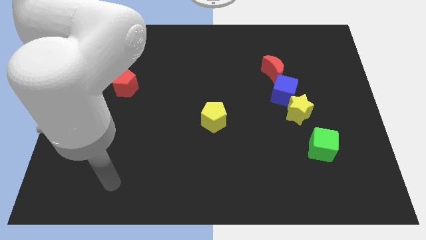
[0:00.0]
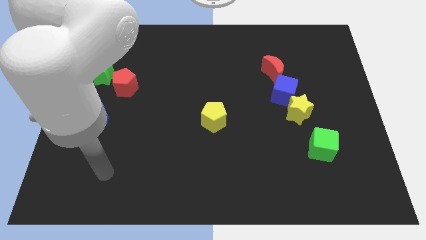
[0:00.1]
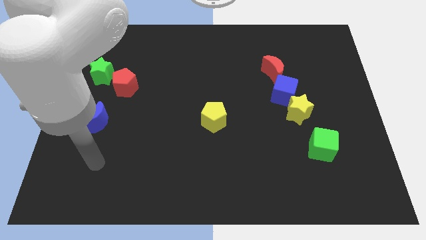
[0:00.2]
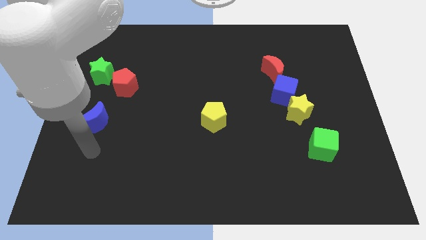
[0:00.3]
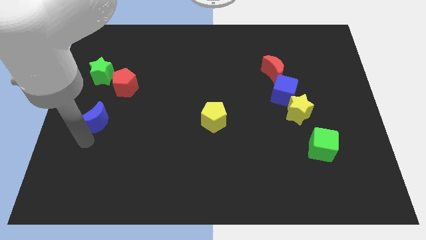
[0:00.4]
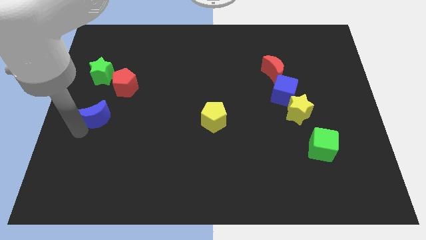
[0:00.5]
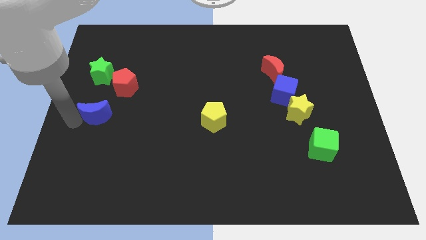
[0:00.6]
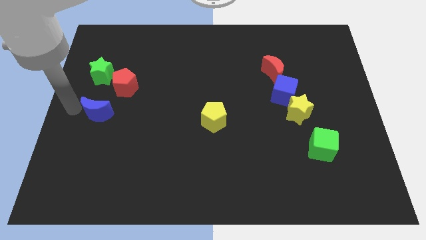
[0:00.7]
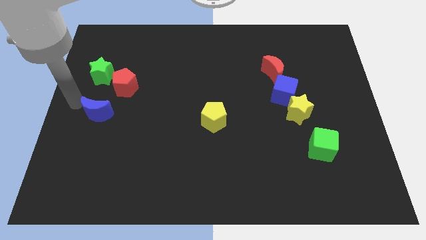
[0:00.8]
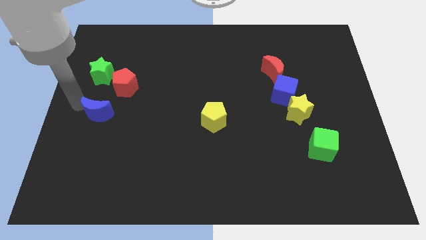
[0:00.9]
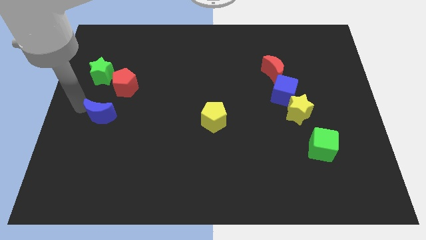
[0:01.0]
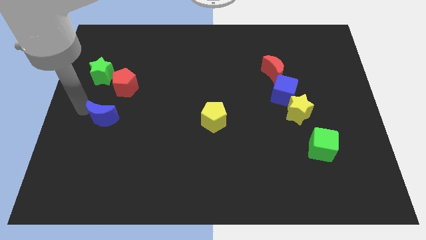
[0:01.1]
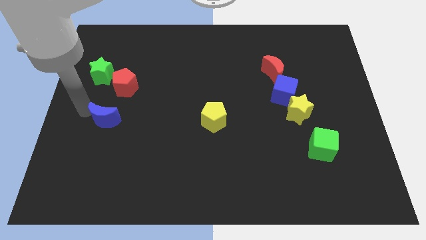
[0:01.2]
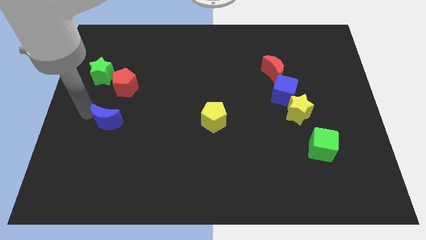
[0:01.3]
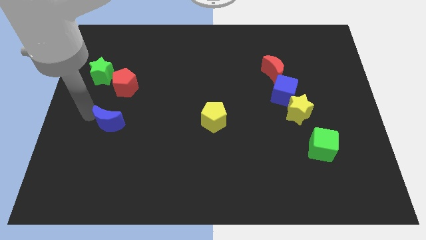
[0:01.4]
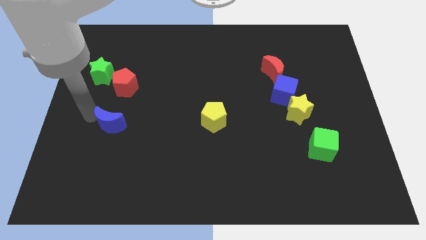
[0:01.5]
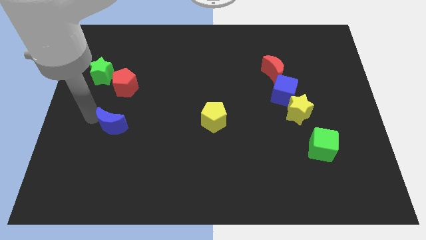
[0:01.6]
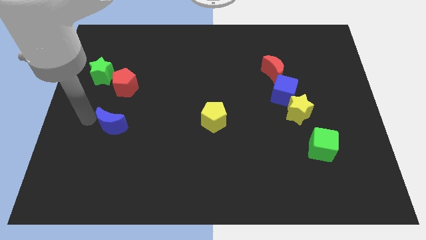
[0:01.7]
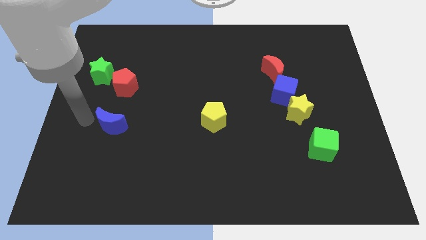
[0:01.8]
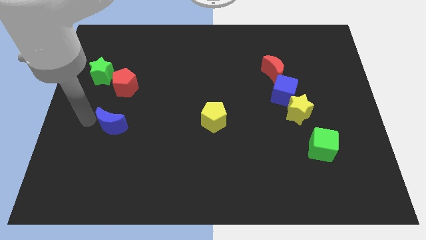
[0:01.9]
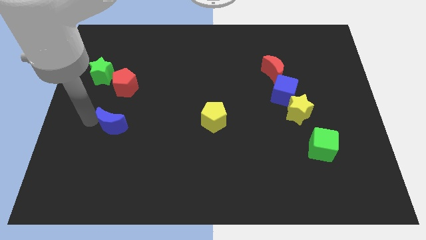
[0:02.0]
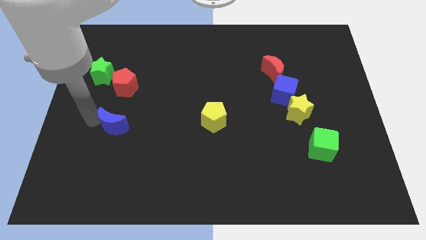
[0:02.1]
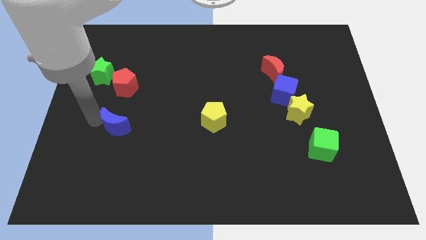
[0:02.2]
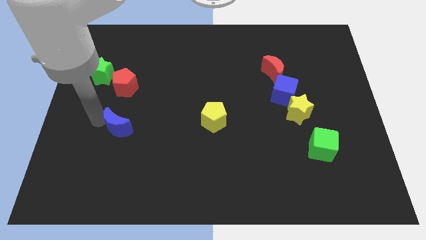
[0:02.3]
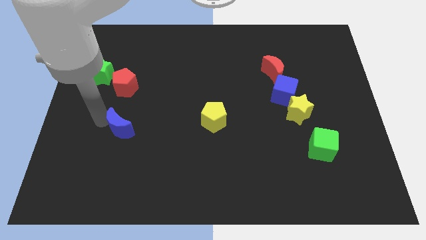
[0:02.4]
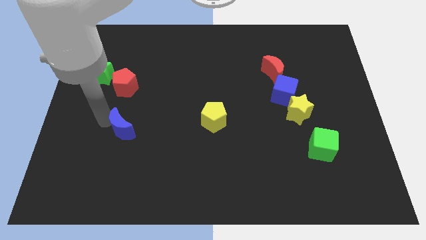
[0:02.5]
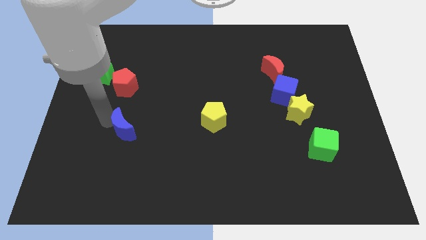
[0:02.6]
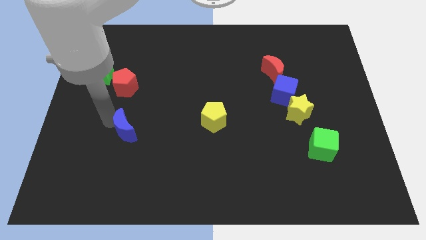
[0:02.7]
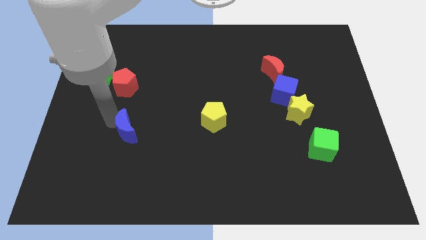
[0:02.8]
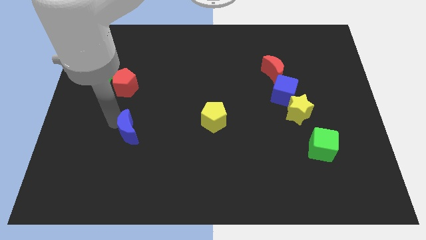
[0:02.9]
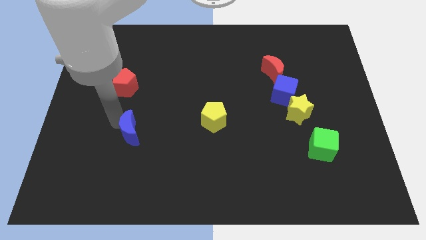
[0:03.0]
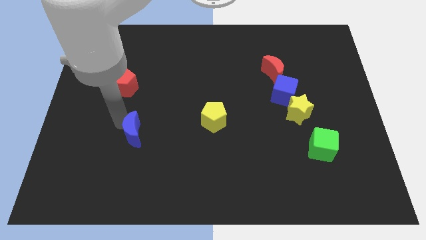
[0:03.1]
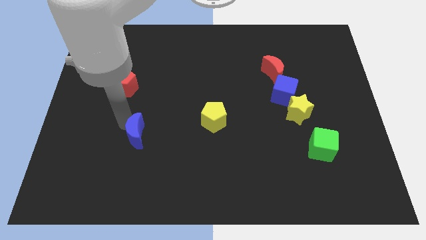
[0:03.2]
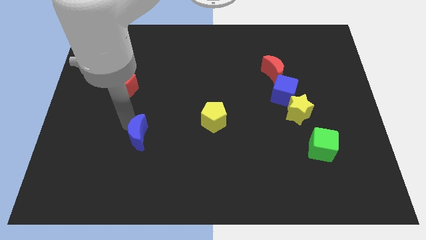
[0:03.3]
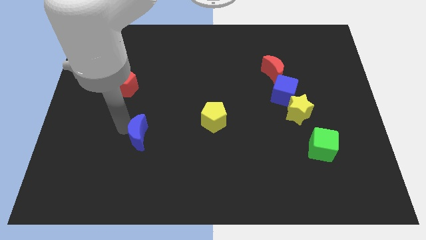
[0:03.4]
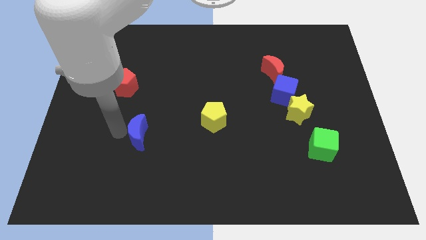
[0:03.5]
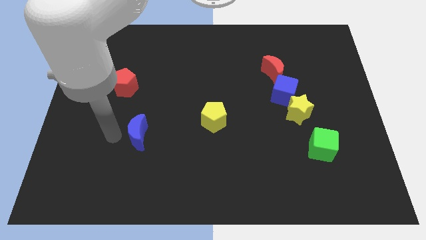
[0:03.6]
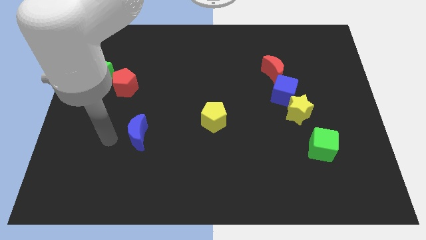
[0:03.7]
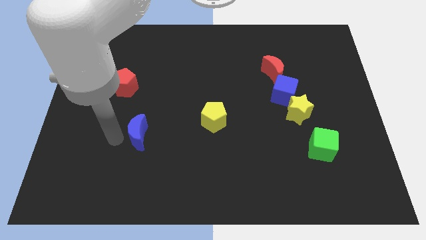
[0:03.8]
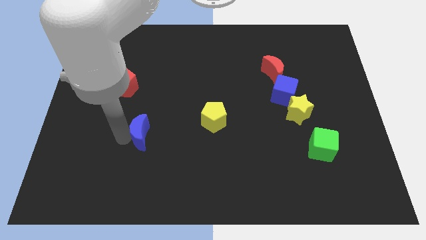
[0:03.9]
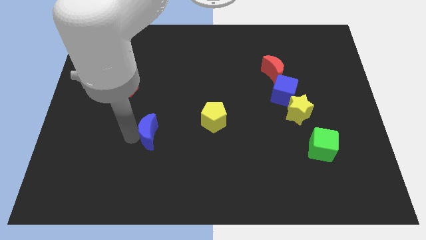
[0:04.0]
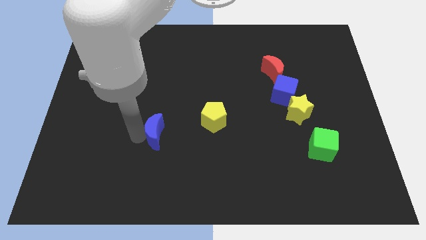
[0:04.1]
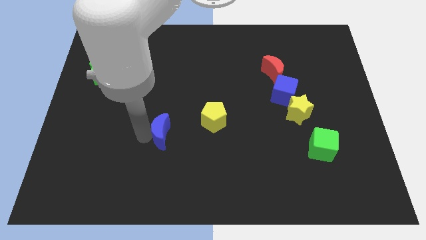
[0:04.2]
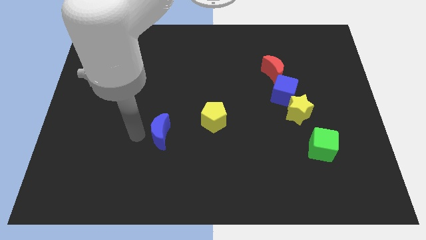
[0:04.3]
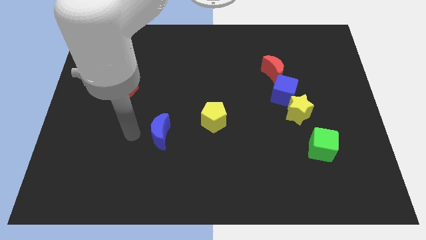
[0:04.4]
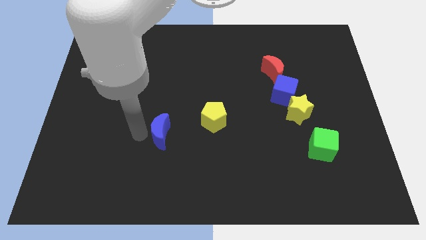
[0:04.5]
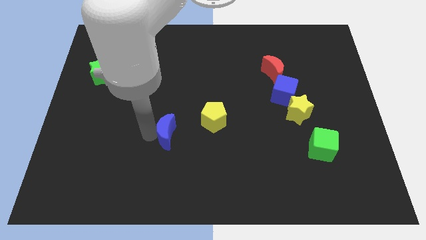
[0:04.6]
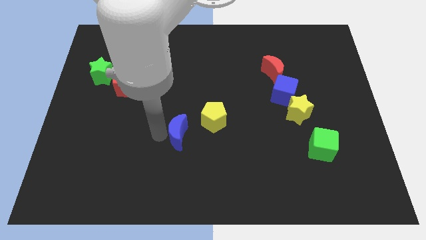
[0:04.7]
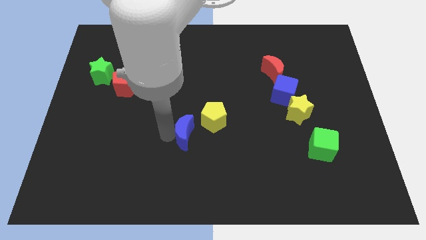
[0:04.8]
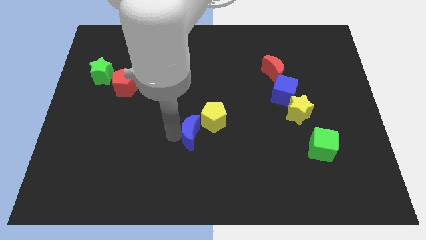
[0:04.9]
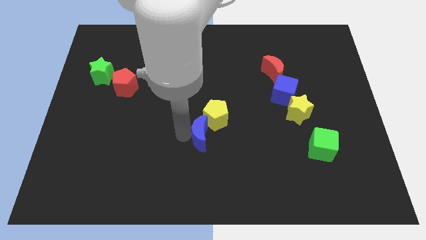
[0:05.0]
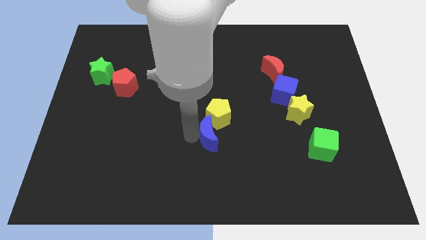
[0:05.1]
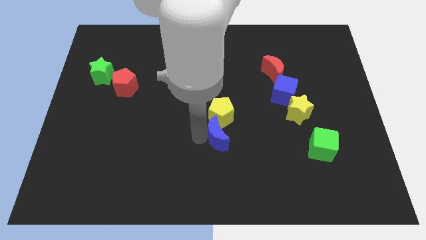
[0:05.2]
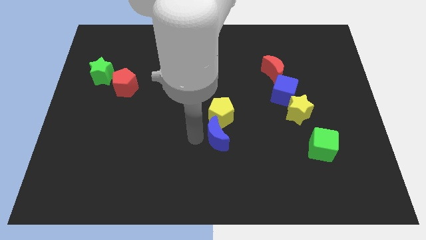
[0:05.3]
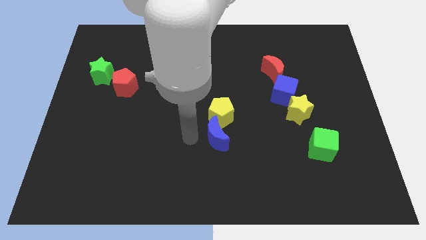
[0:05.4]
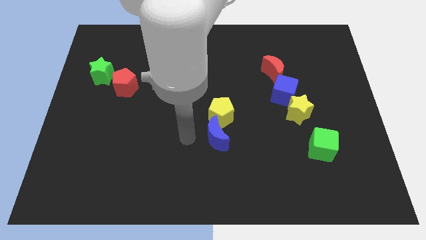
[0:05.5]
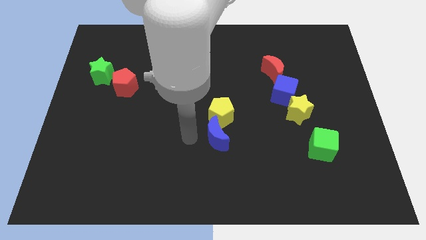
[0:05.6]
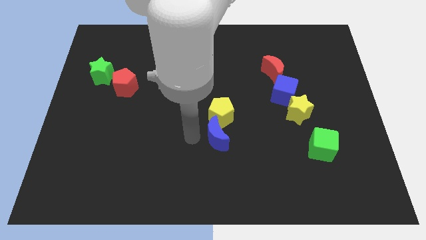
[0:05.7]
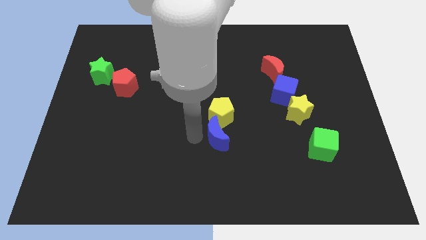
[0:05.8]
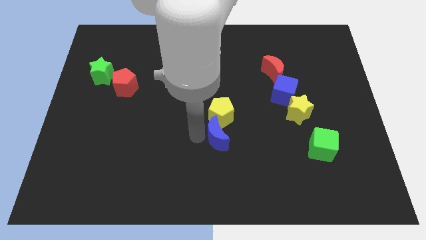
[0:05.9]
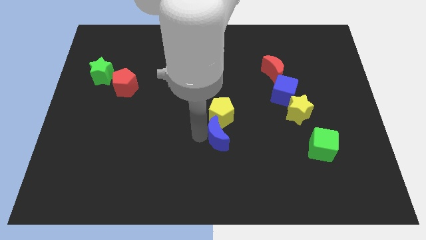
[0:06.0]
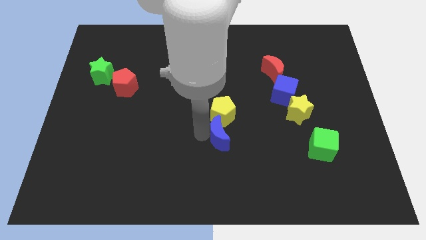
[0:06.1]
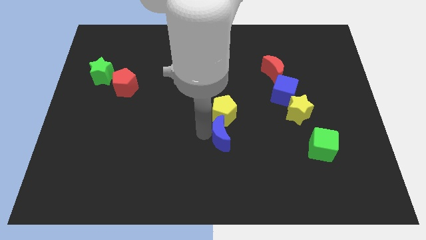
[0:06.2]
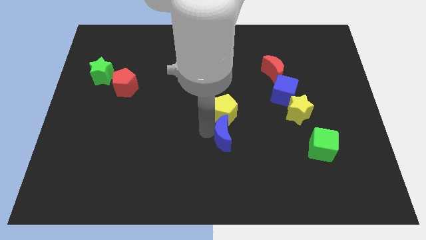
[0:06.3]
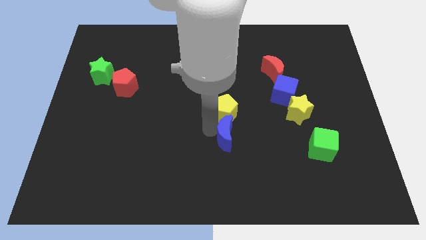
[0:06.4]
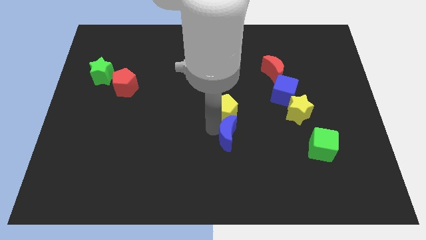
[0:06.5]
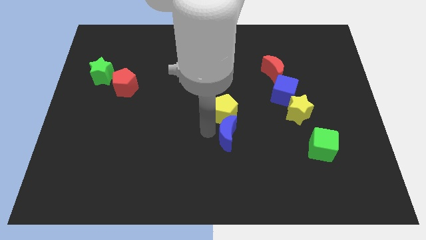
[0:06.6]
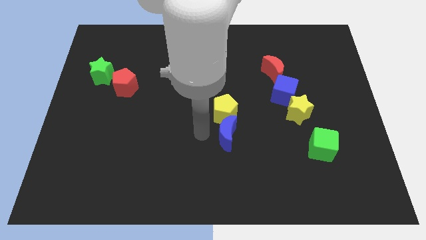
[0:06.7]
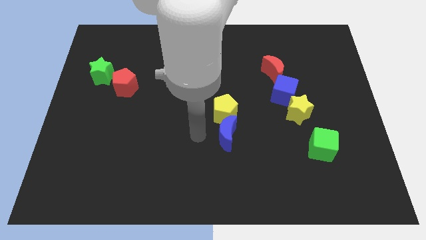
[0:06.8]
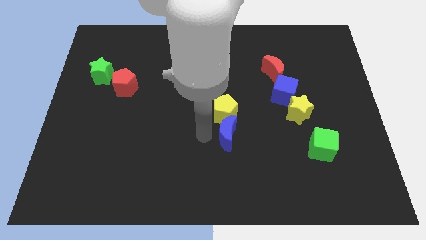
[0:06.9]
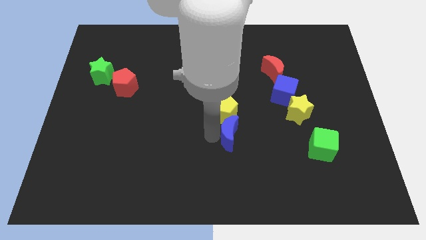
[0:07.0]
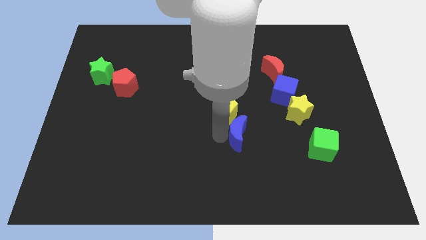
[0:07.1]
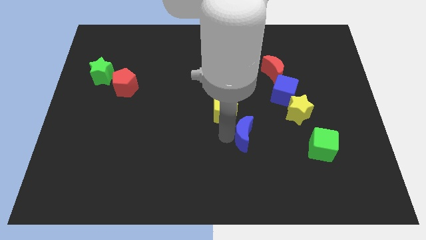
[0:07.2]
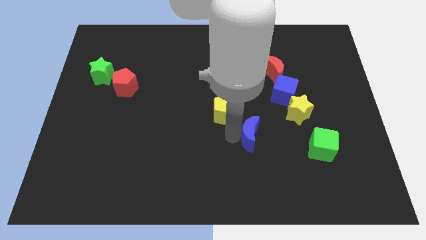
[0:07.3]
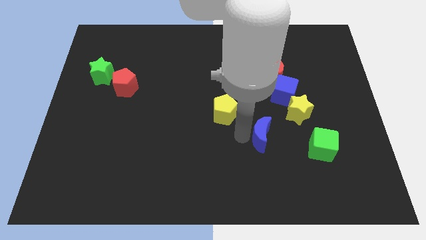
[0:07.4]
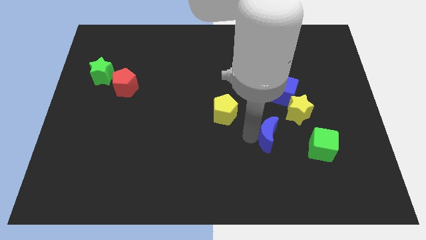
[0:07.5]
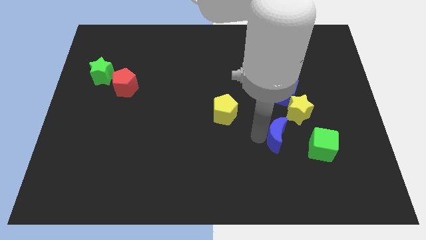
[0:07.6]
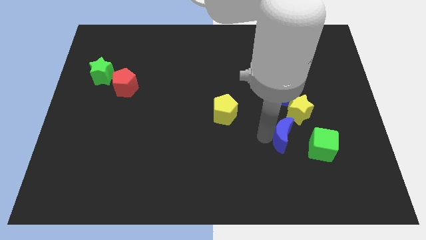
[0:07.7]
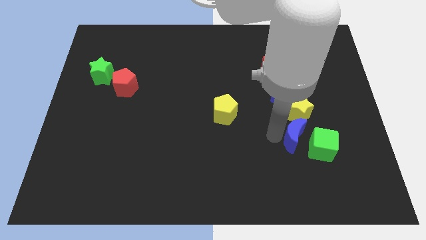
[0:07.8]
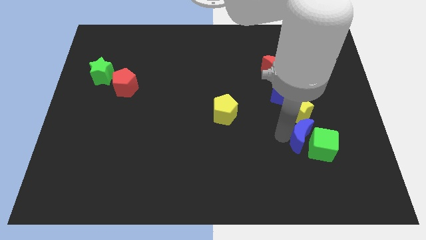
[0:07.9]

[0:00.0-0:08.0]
push the blue moon close to the green cube
